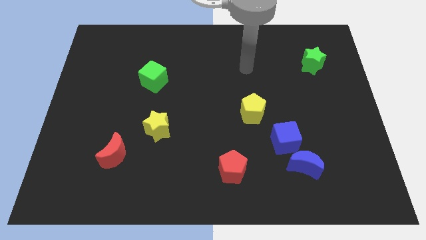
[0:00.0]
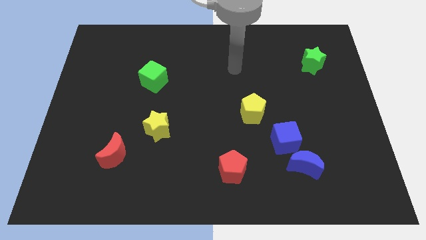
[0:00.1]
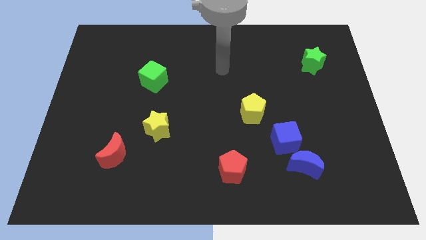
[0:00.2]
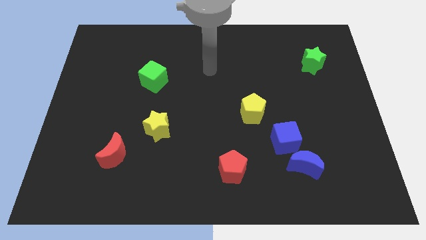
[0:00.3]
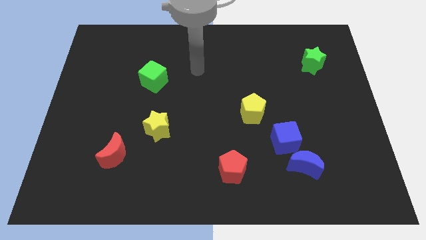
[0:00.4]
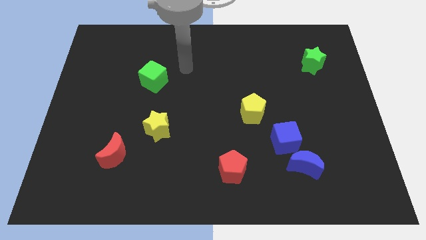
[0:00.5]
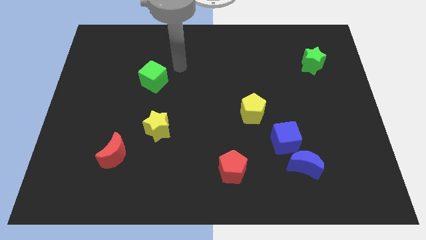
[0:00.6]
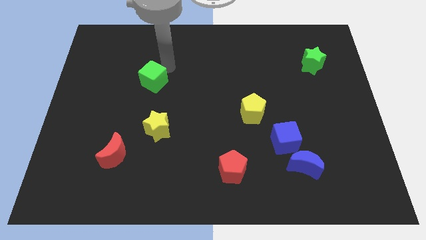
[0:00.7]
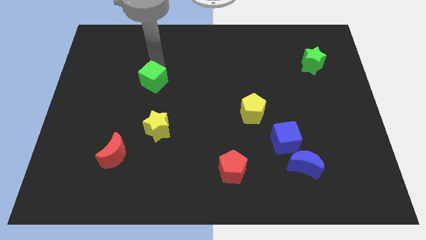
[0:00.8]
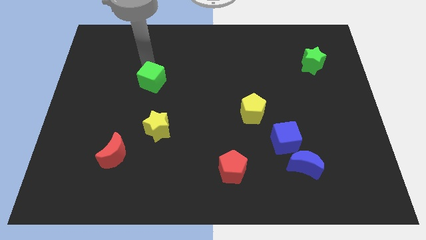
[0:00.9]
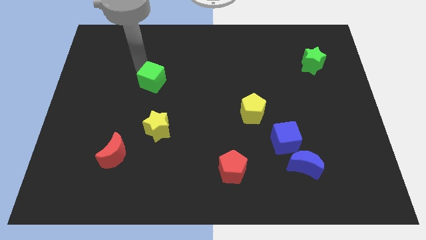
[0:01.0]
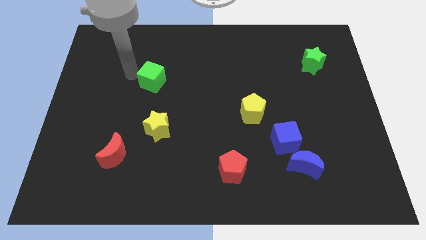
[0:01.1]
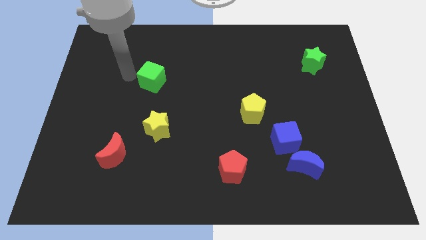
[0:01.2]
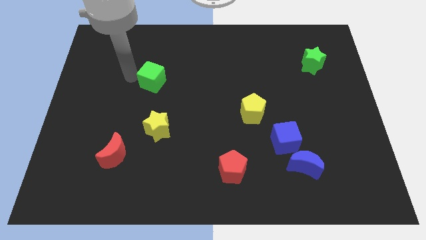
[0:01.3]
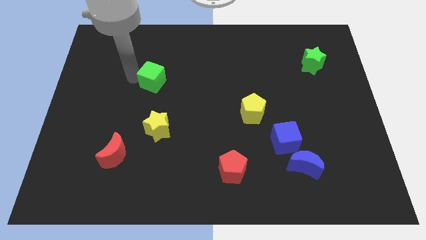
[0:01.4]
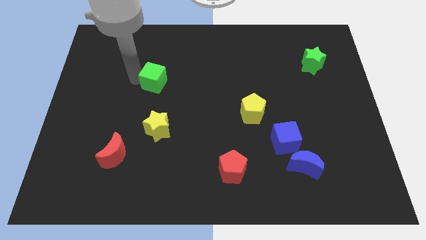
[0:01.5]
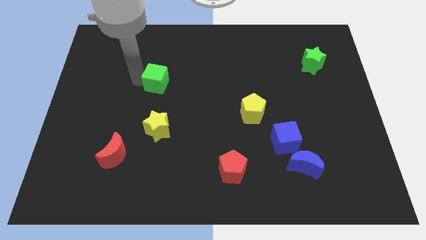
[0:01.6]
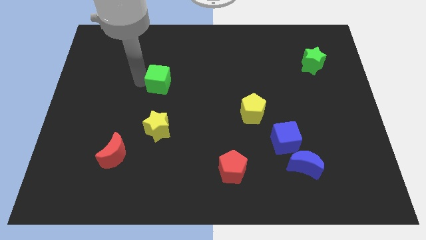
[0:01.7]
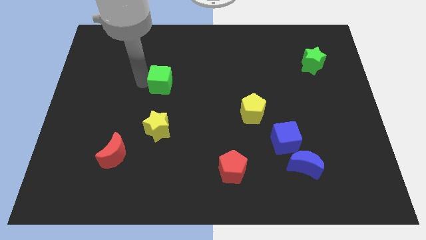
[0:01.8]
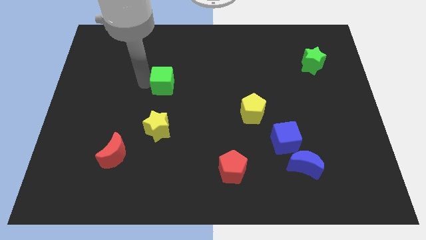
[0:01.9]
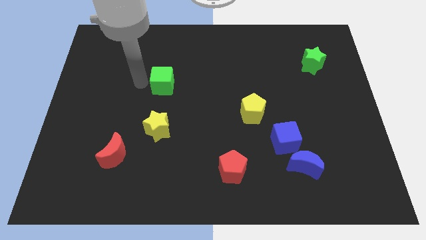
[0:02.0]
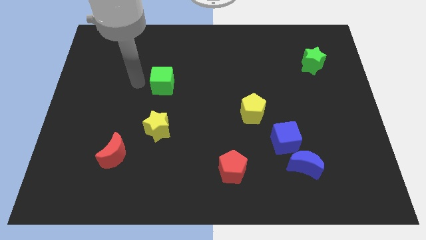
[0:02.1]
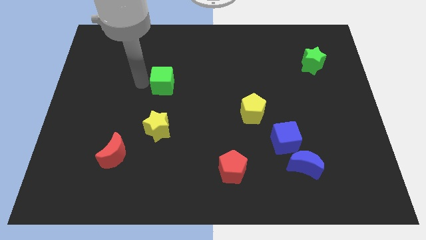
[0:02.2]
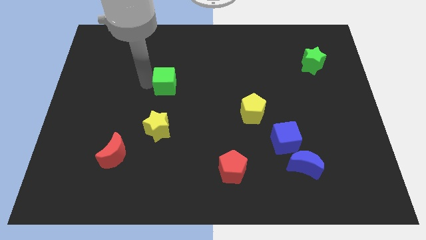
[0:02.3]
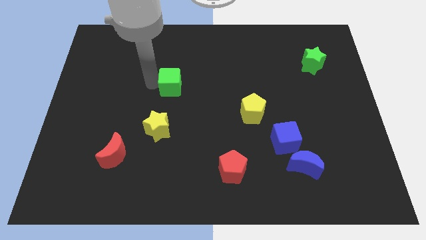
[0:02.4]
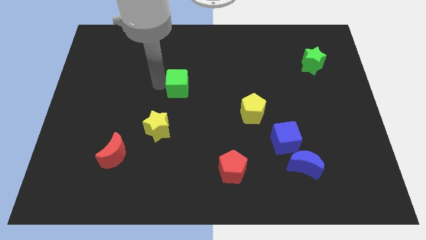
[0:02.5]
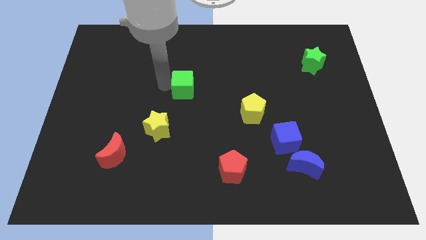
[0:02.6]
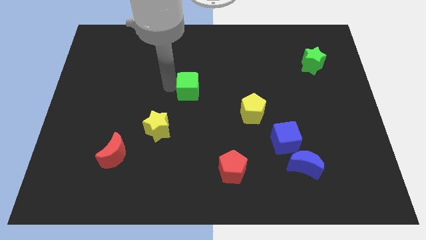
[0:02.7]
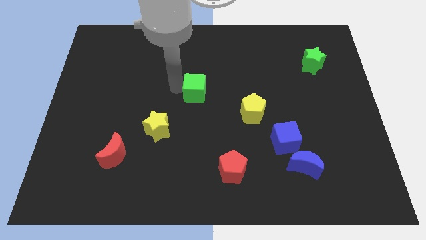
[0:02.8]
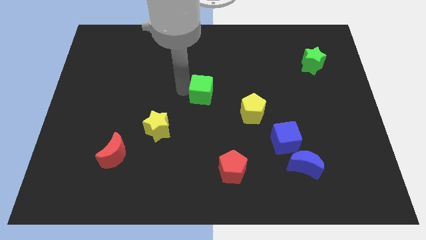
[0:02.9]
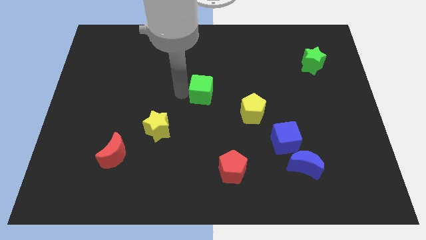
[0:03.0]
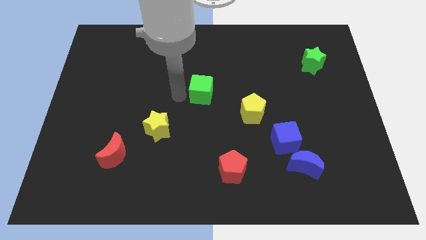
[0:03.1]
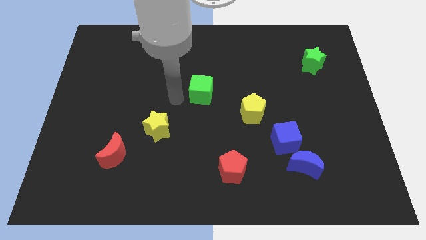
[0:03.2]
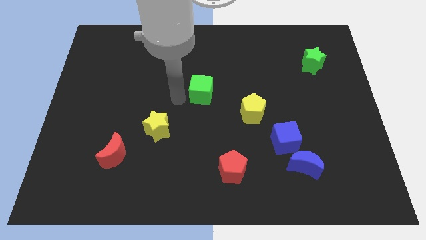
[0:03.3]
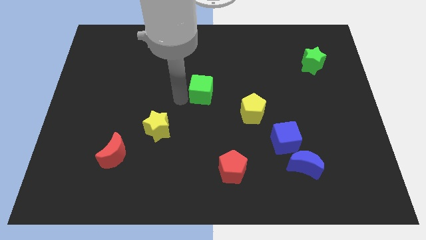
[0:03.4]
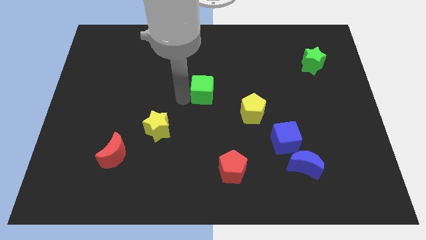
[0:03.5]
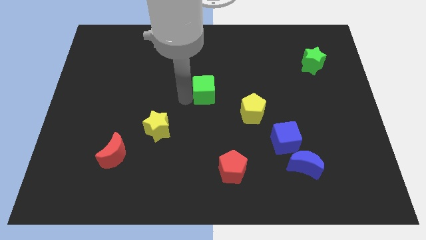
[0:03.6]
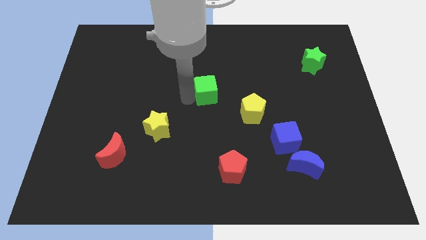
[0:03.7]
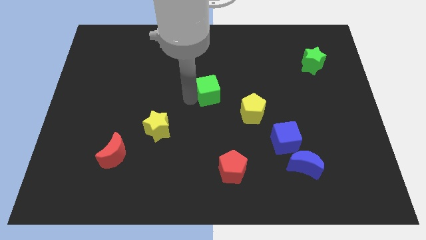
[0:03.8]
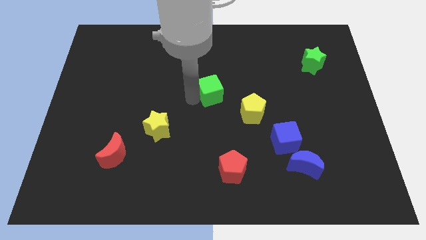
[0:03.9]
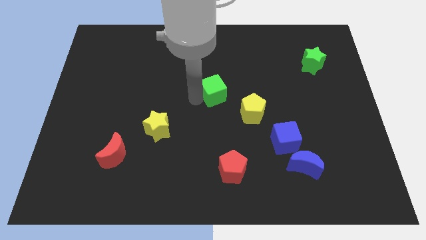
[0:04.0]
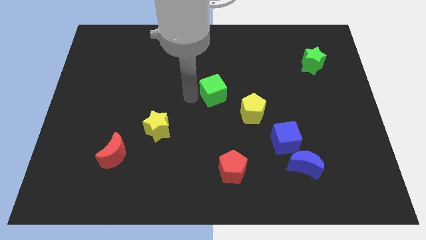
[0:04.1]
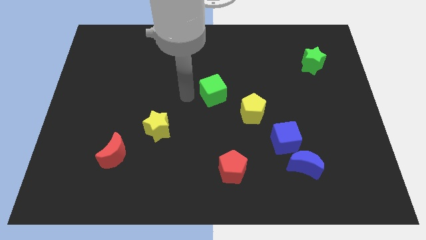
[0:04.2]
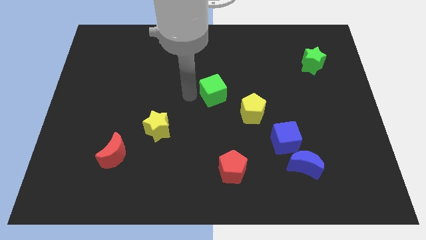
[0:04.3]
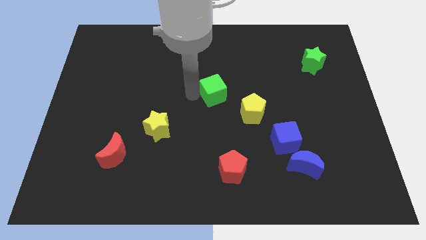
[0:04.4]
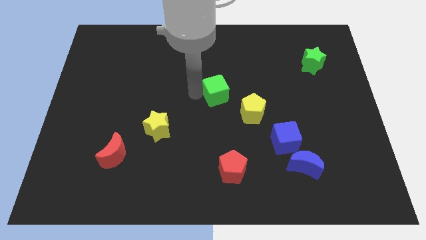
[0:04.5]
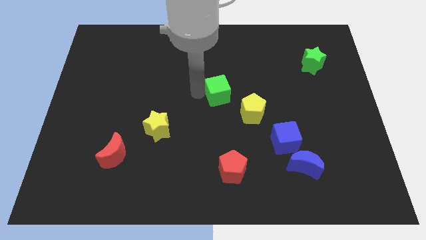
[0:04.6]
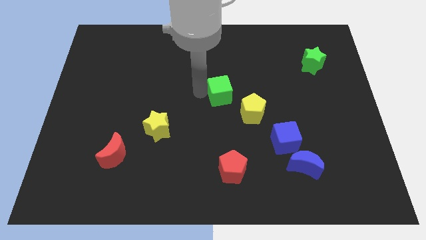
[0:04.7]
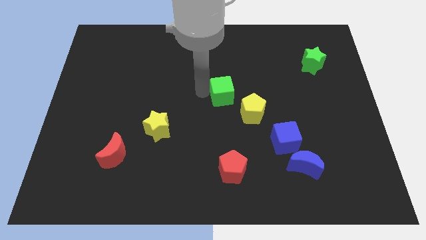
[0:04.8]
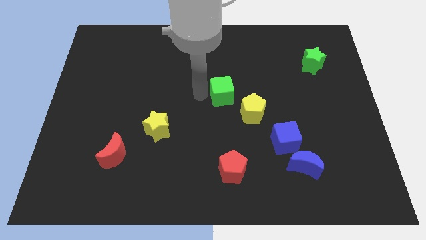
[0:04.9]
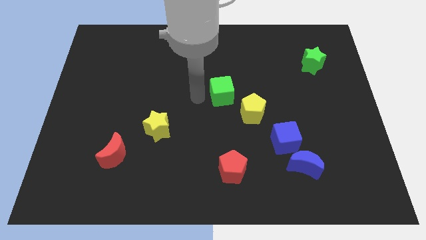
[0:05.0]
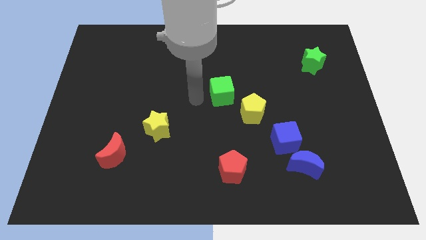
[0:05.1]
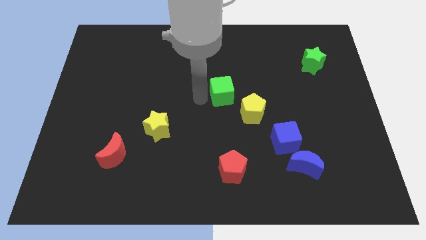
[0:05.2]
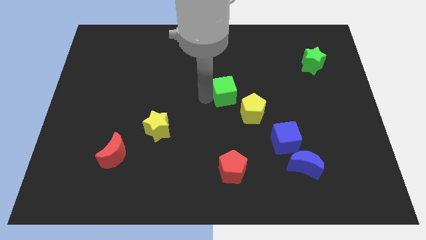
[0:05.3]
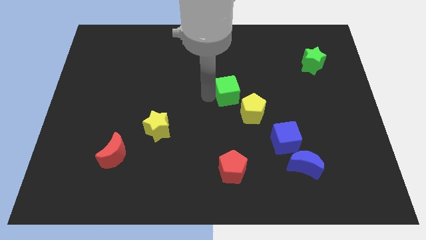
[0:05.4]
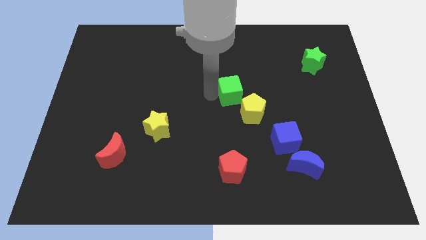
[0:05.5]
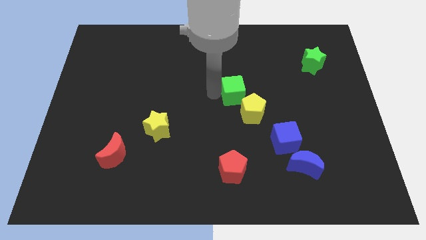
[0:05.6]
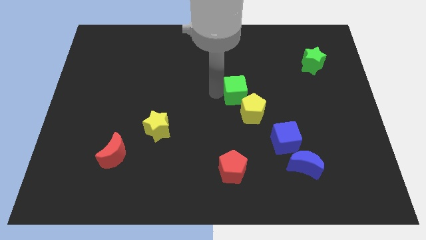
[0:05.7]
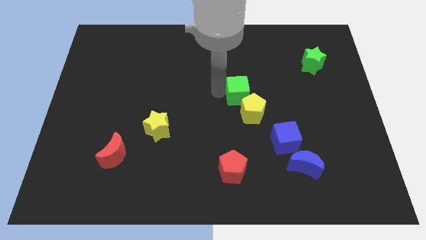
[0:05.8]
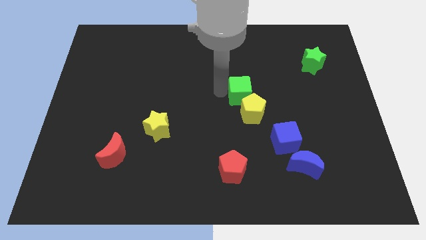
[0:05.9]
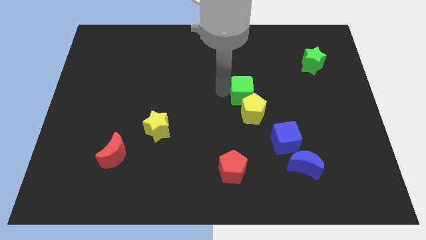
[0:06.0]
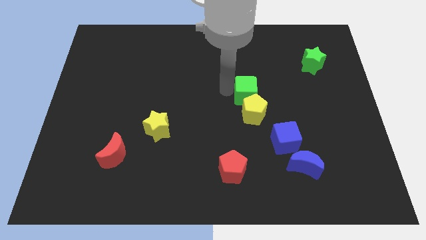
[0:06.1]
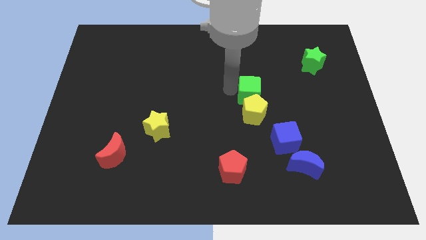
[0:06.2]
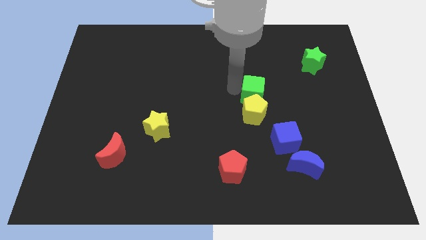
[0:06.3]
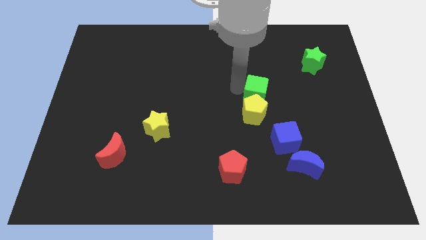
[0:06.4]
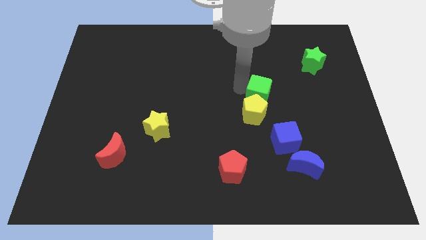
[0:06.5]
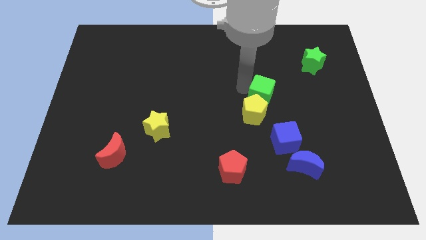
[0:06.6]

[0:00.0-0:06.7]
push the green cube above the blue cube

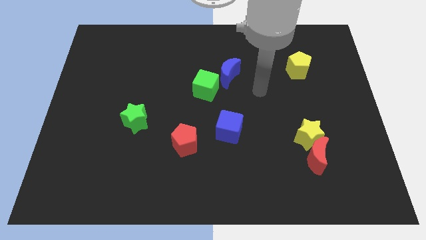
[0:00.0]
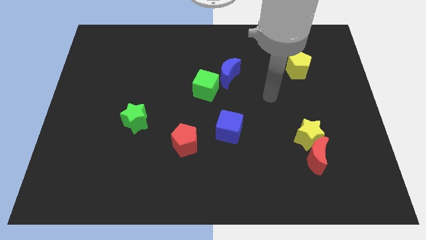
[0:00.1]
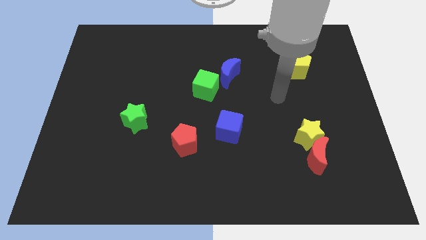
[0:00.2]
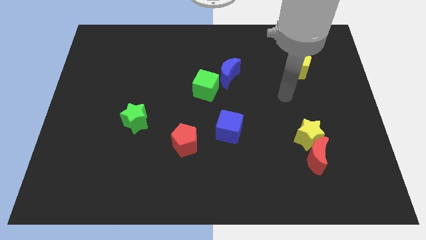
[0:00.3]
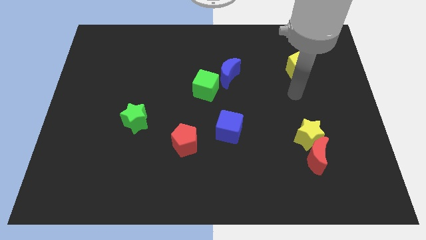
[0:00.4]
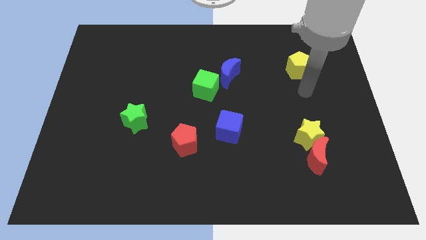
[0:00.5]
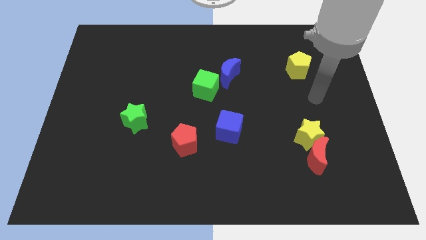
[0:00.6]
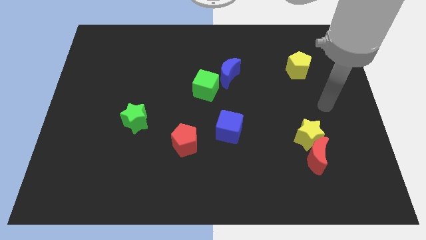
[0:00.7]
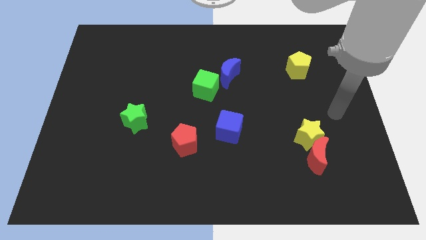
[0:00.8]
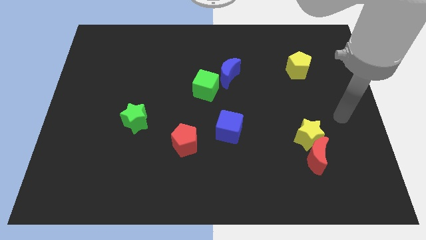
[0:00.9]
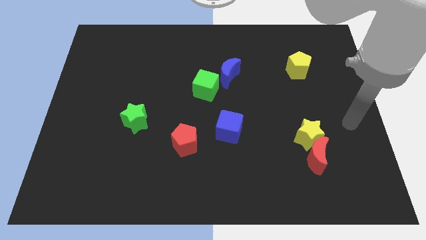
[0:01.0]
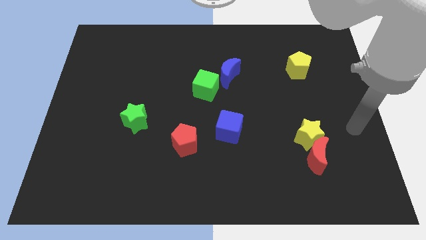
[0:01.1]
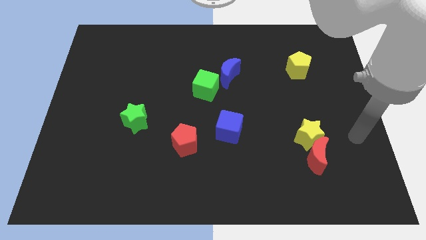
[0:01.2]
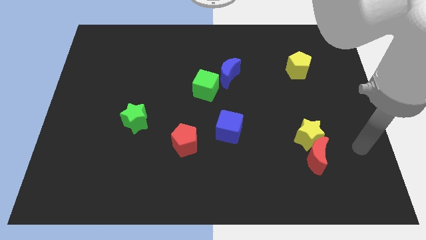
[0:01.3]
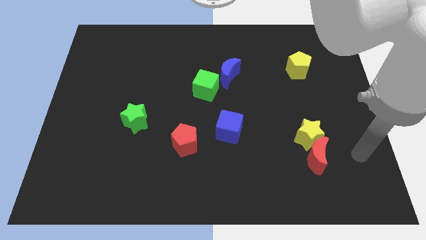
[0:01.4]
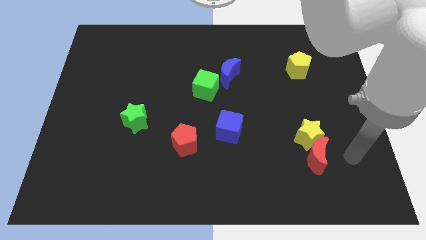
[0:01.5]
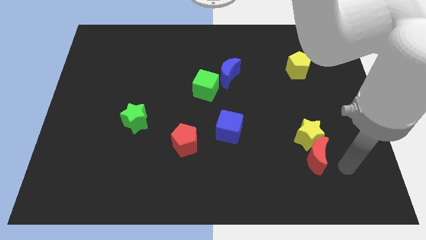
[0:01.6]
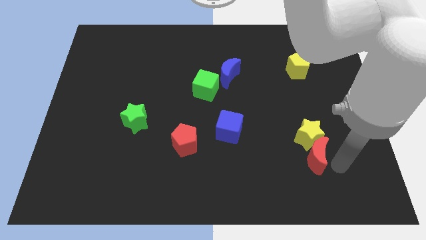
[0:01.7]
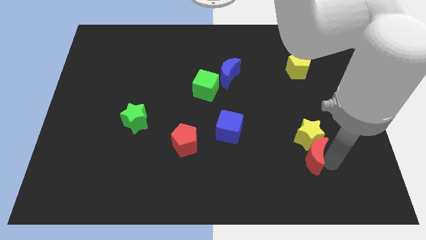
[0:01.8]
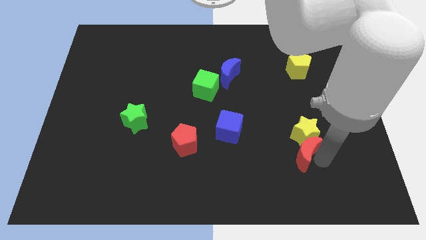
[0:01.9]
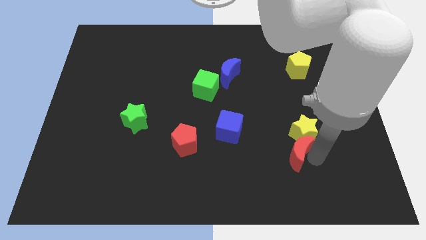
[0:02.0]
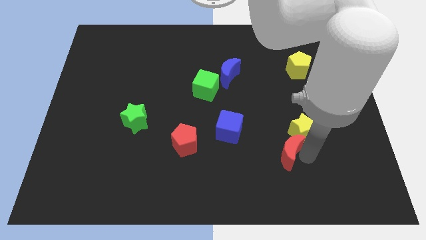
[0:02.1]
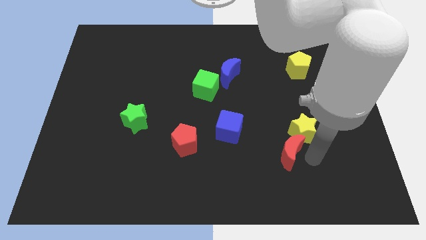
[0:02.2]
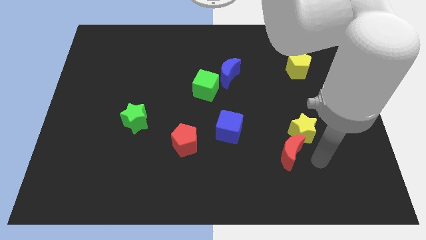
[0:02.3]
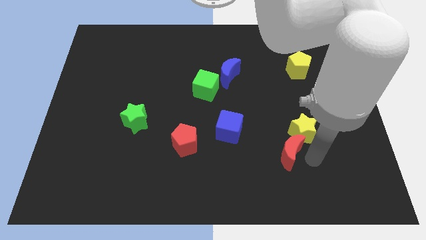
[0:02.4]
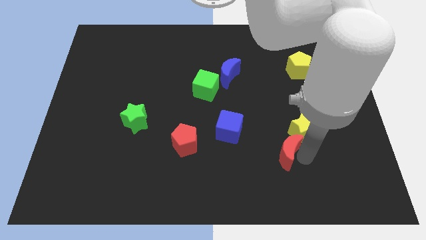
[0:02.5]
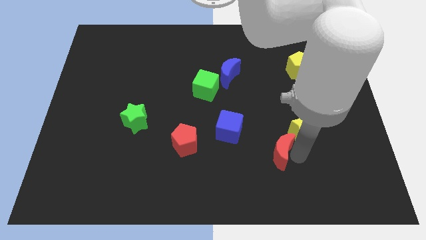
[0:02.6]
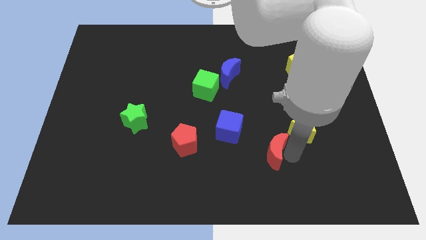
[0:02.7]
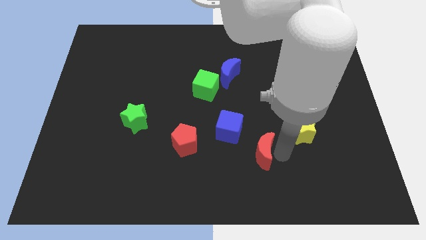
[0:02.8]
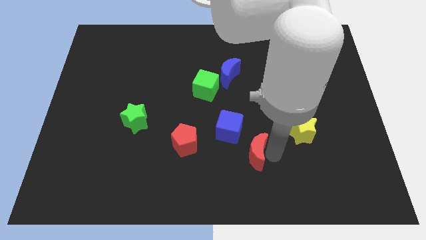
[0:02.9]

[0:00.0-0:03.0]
push the red moon just right of the red pentagon
